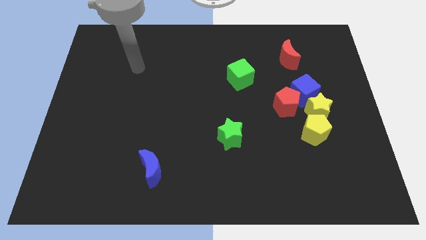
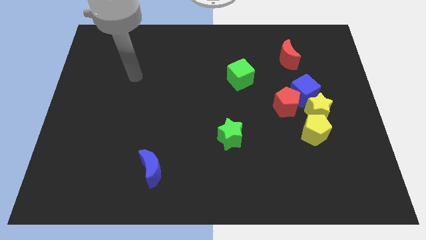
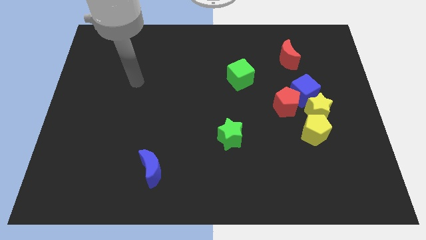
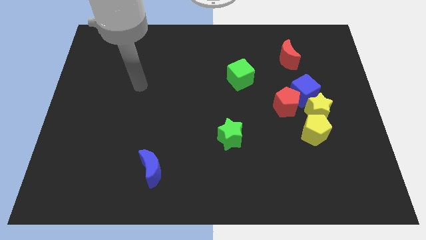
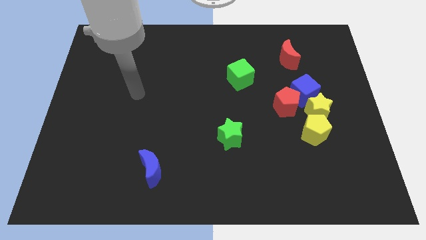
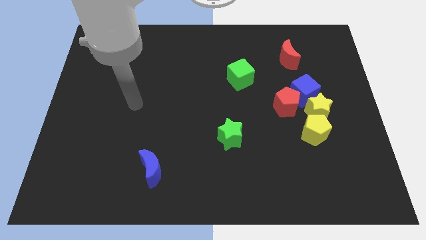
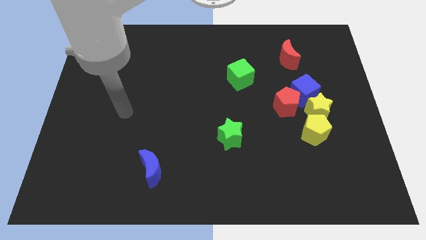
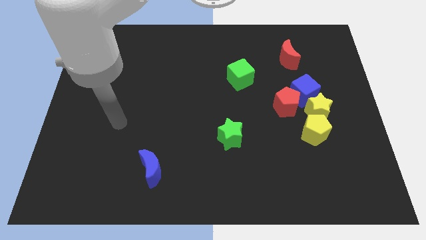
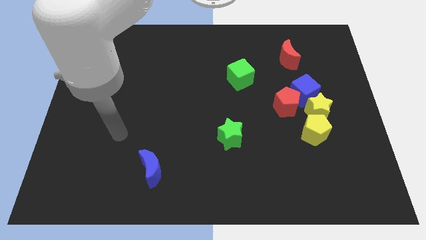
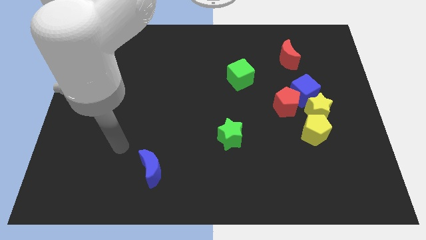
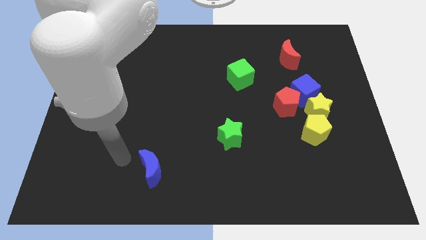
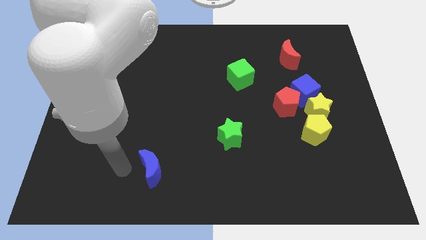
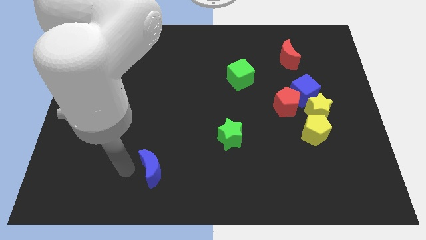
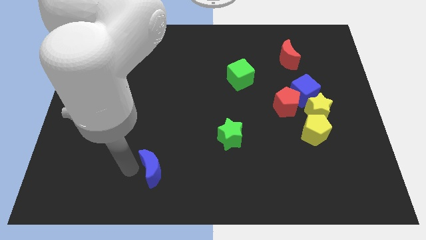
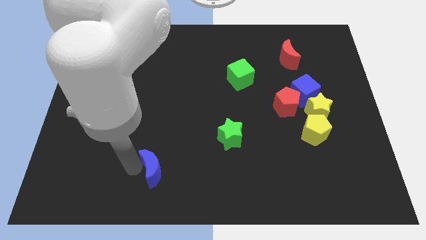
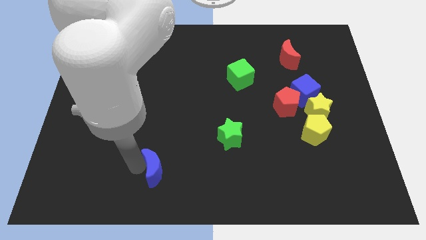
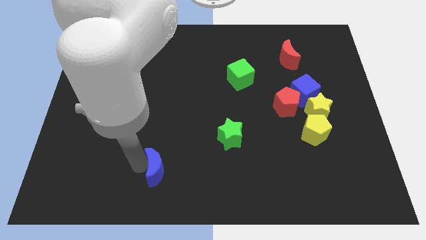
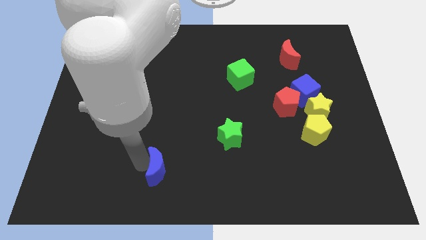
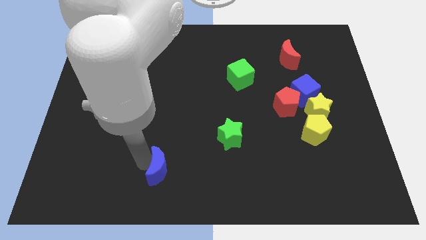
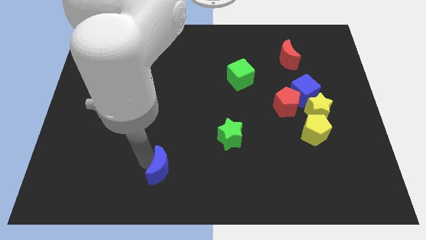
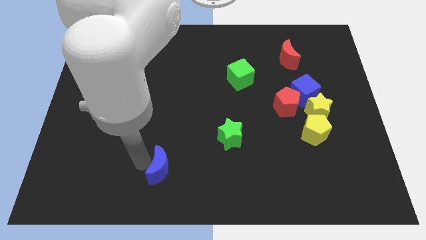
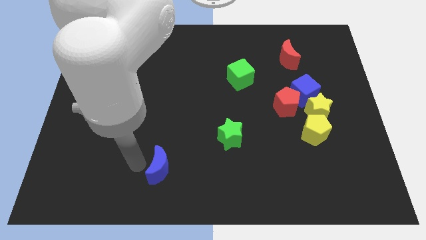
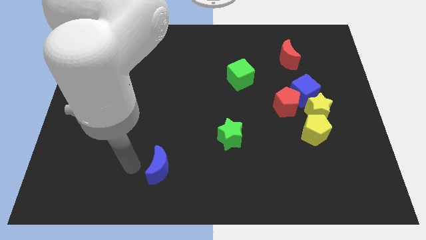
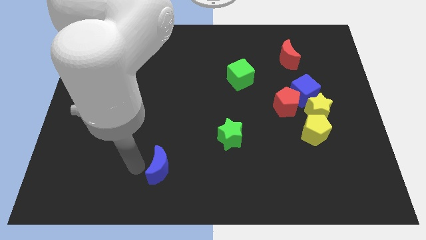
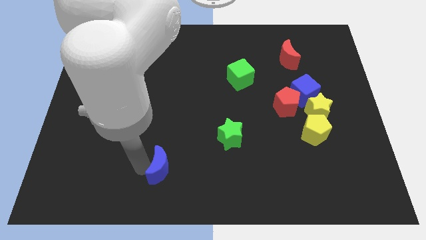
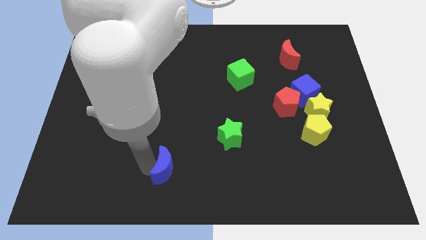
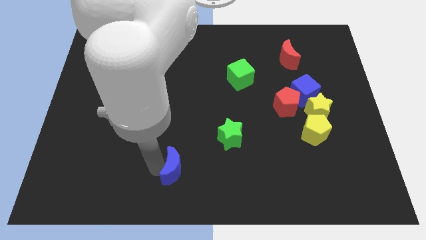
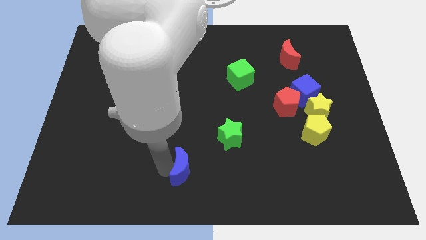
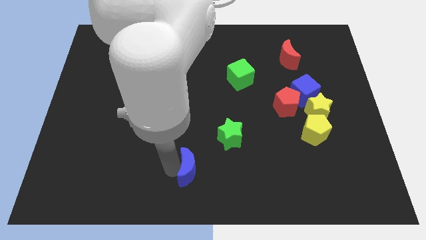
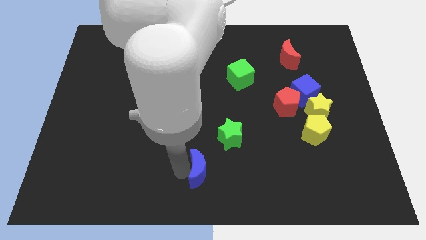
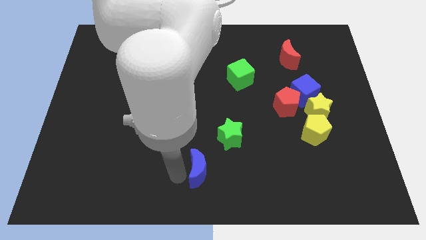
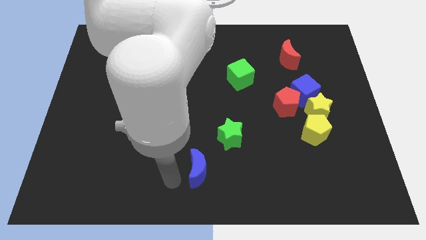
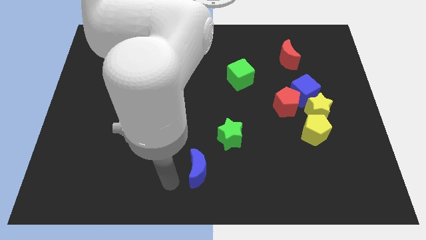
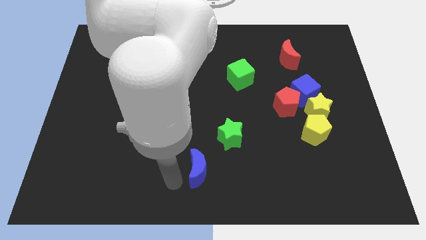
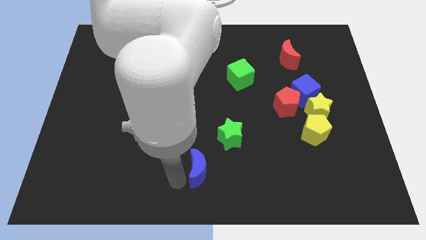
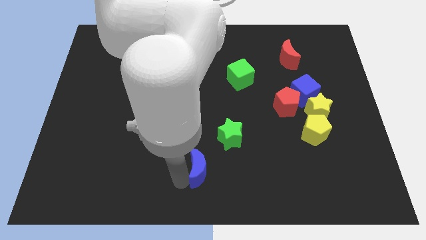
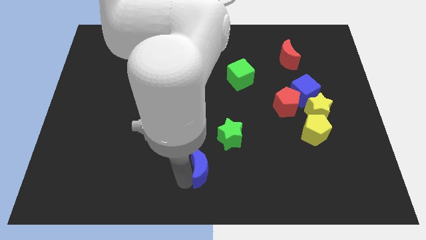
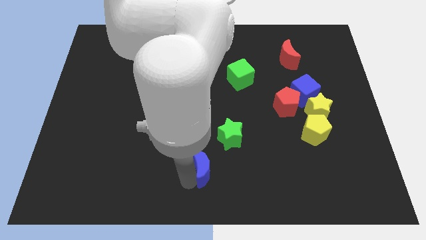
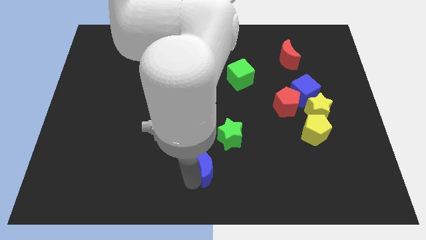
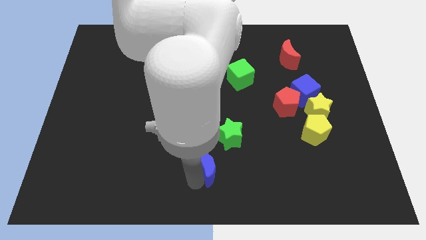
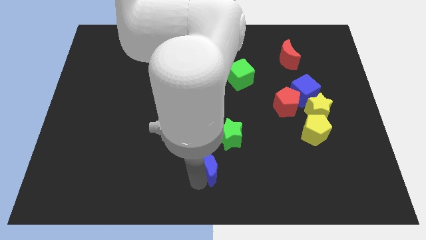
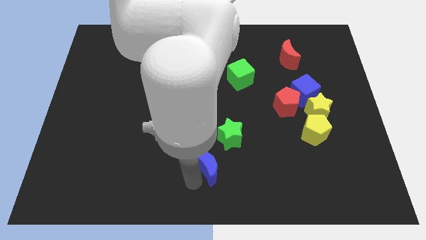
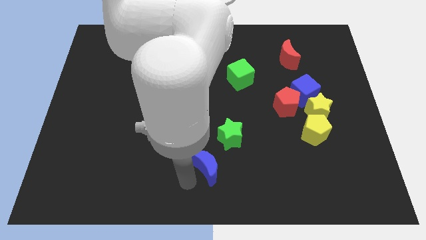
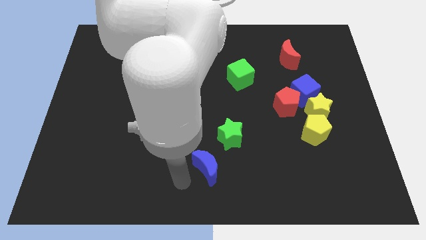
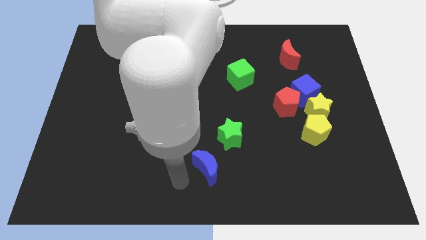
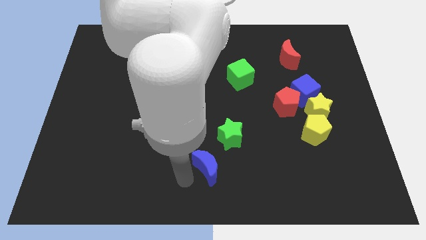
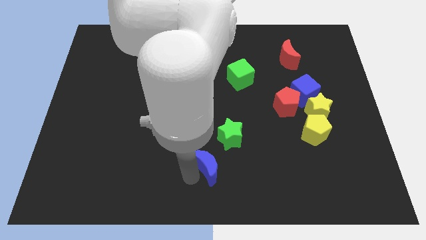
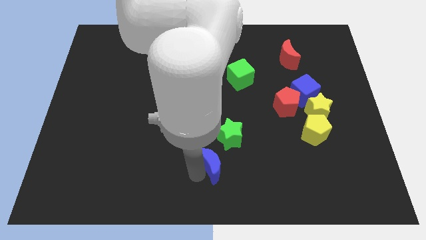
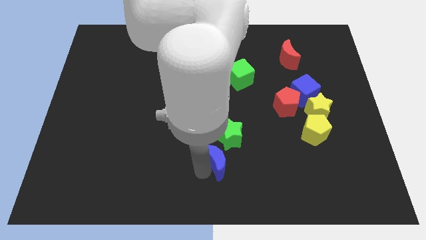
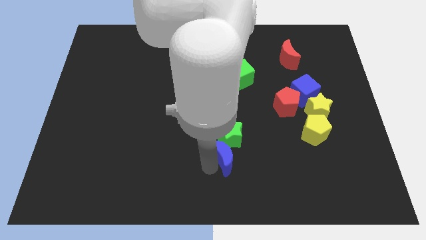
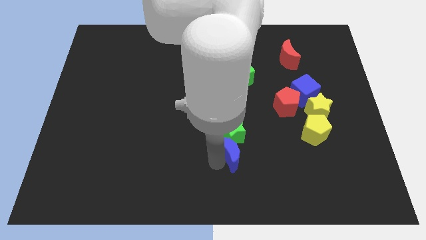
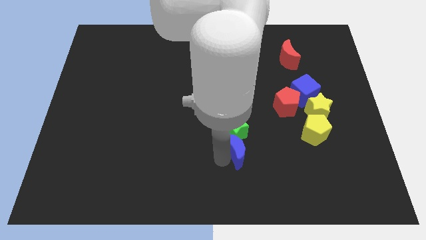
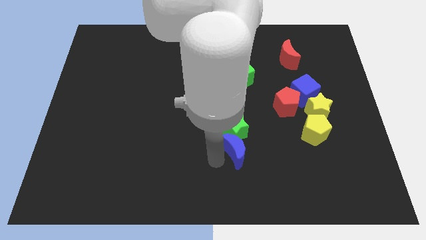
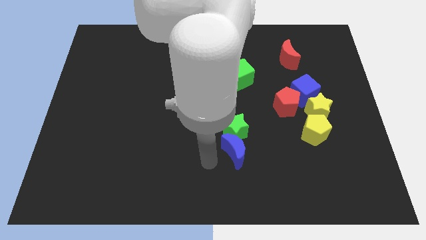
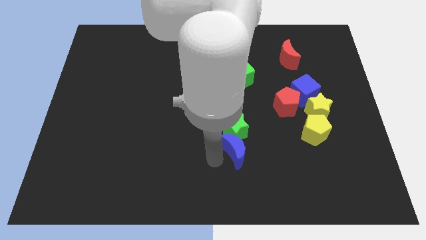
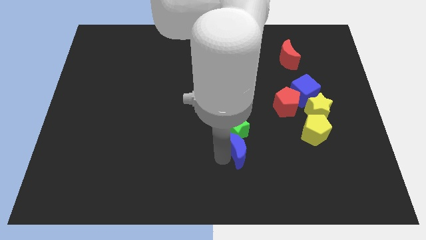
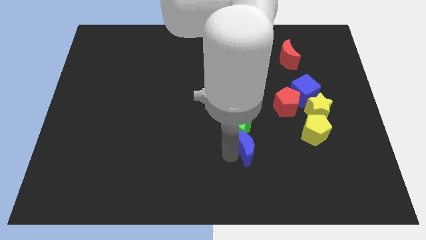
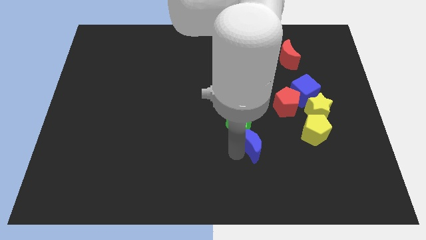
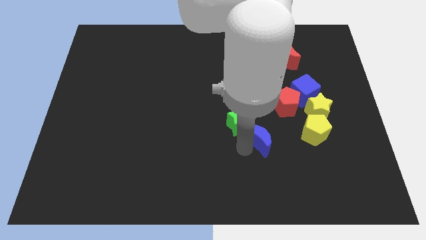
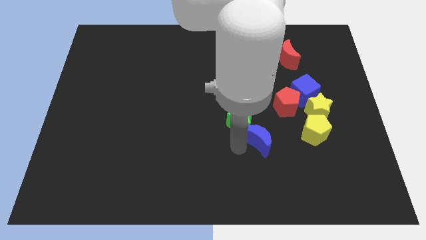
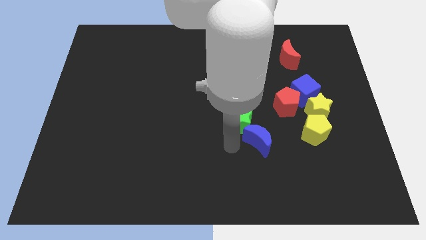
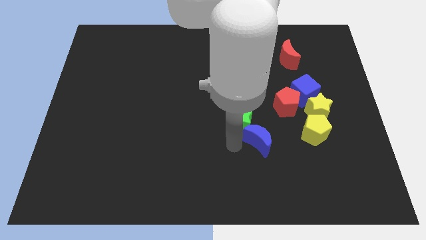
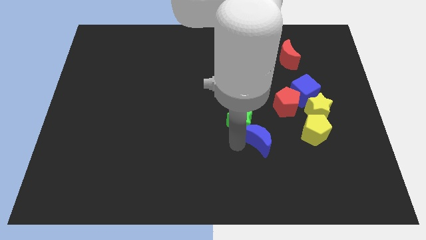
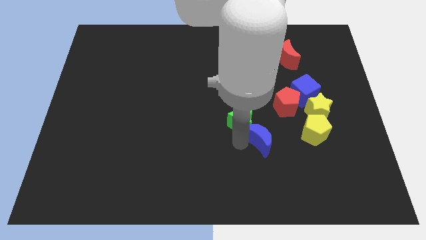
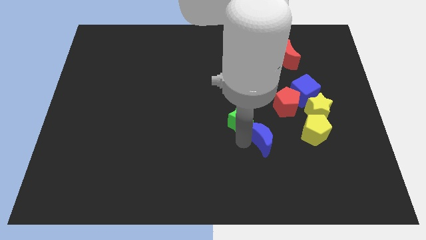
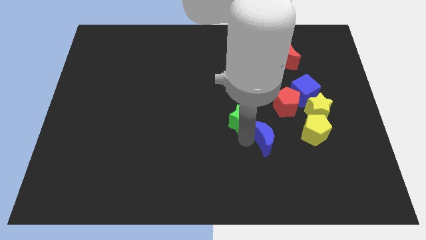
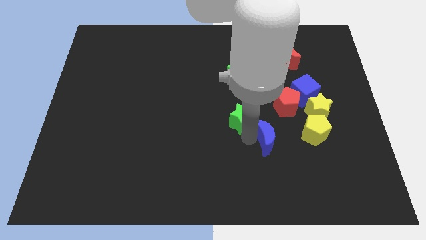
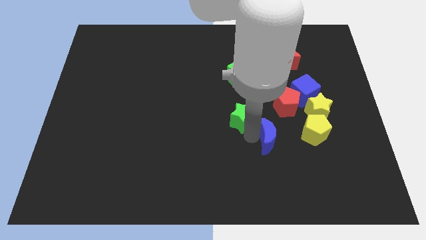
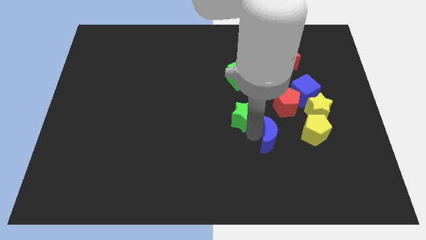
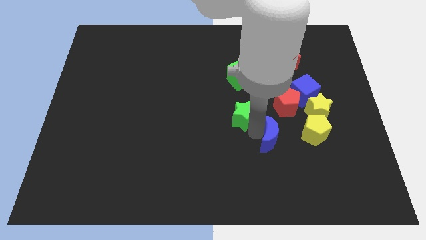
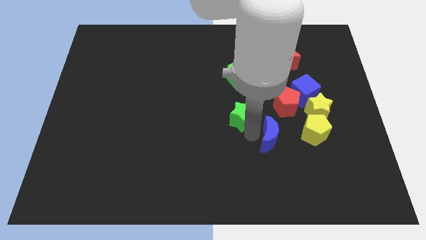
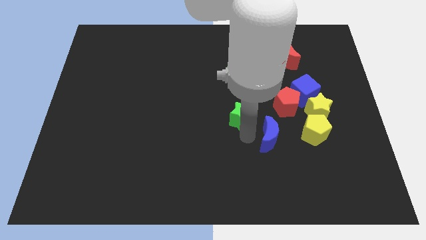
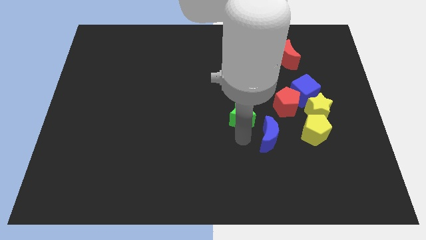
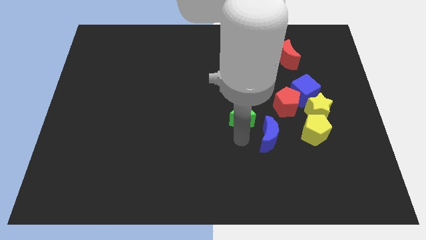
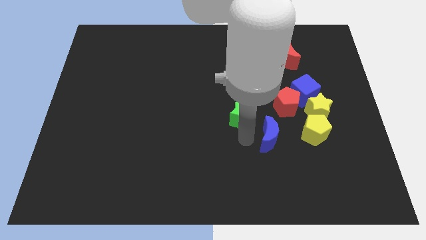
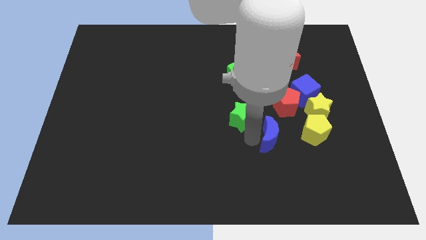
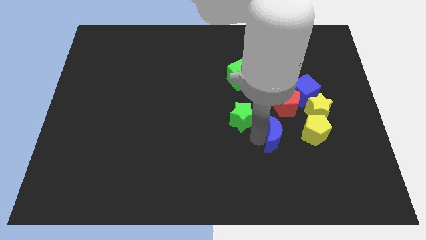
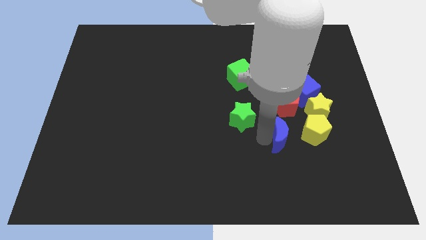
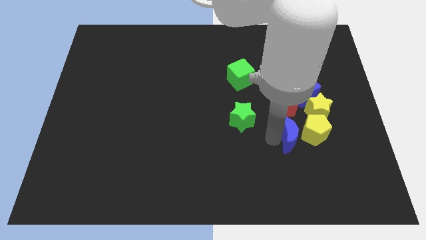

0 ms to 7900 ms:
slide the blue moon close to the yellow pentagon
